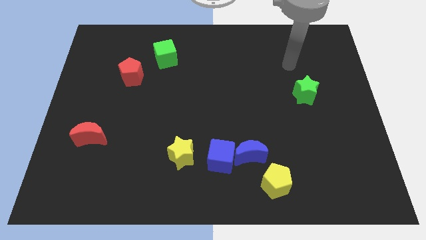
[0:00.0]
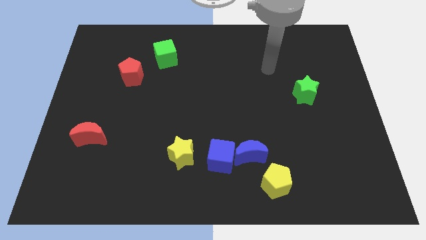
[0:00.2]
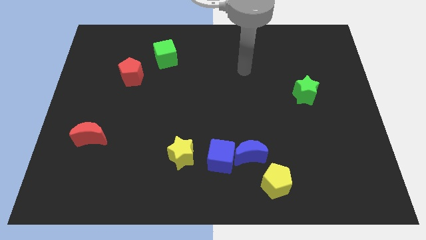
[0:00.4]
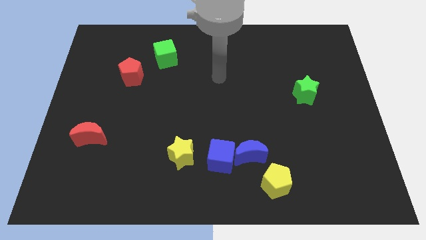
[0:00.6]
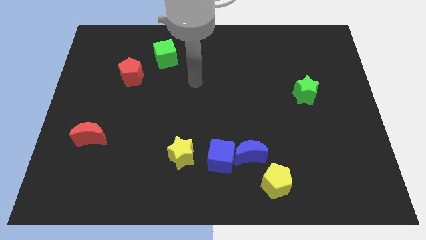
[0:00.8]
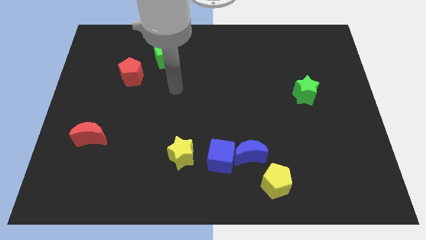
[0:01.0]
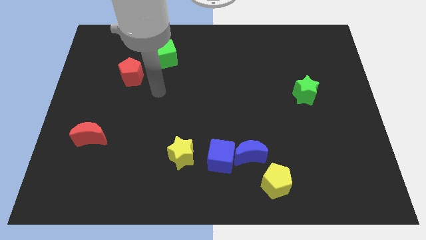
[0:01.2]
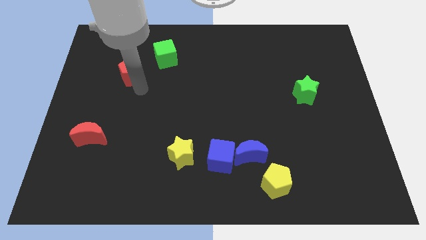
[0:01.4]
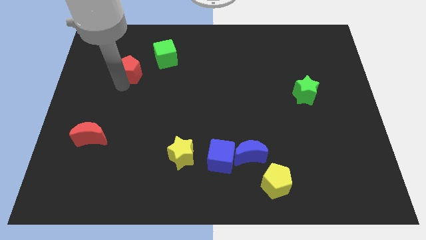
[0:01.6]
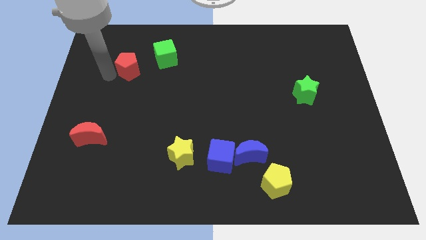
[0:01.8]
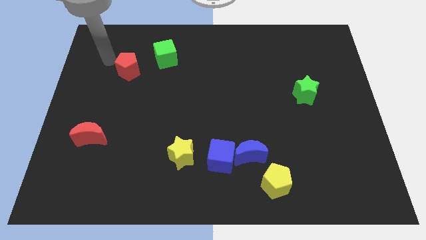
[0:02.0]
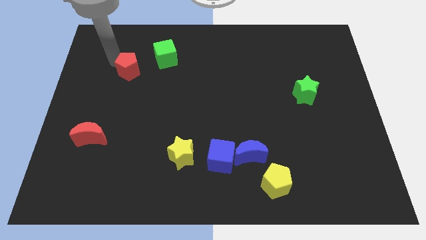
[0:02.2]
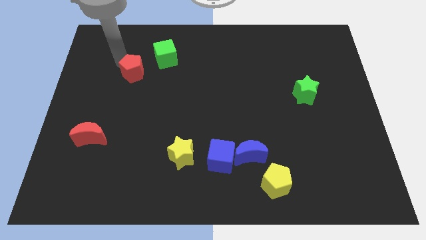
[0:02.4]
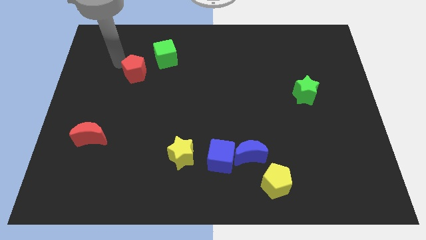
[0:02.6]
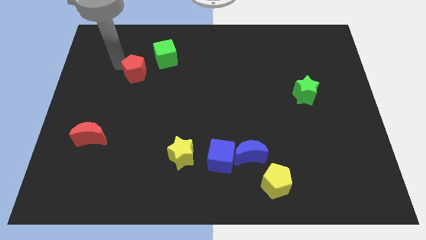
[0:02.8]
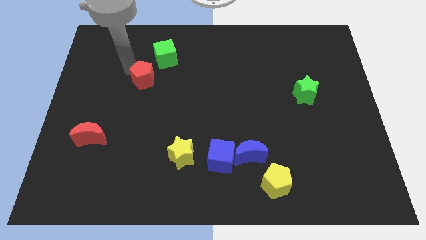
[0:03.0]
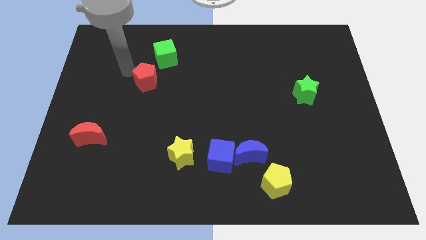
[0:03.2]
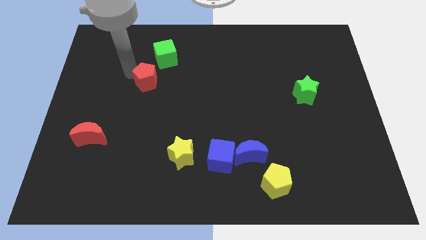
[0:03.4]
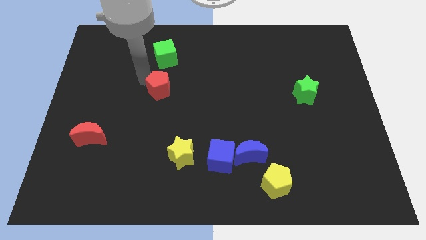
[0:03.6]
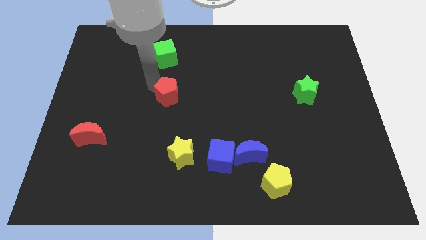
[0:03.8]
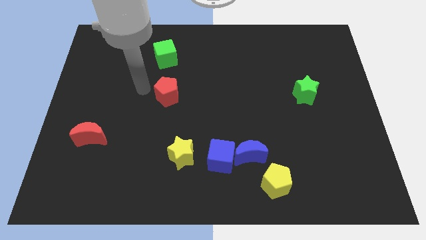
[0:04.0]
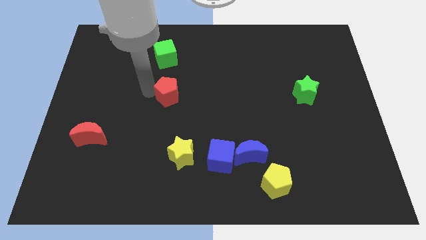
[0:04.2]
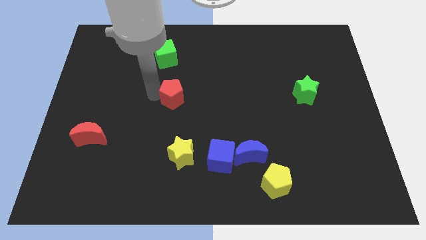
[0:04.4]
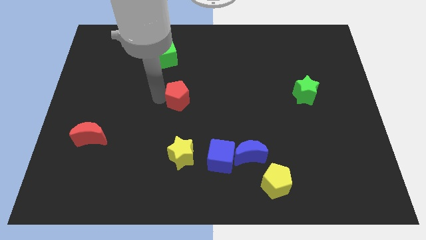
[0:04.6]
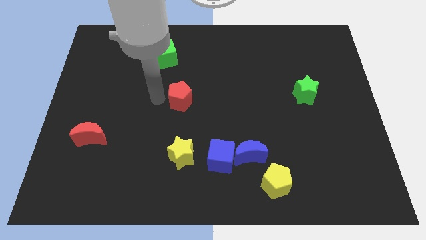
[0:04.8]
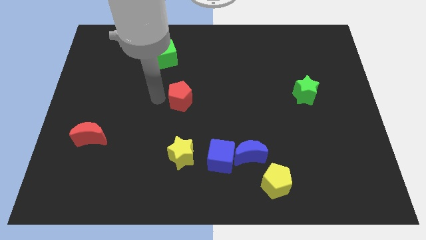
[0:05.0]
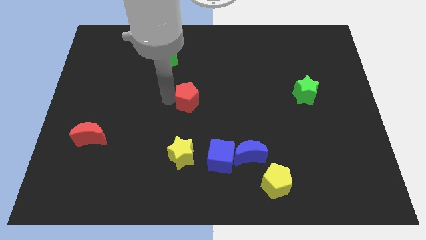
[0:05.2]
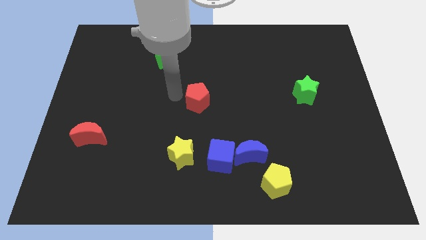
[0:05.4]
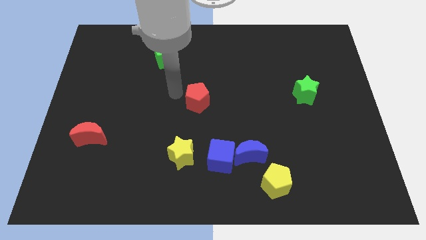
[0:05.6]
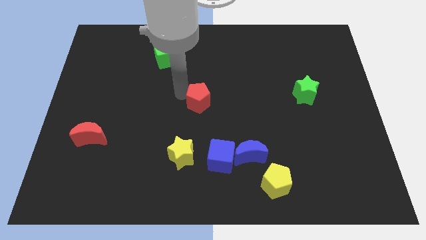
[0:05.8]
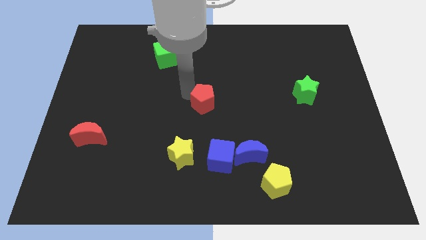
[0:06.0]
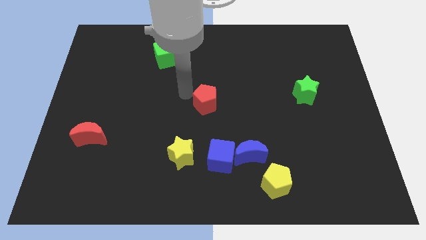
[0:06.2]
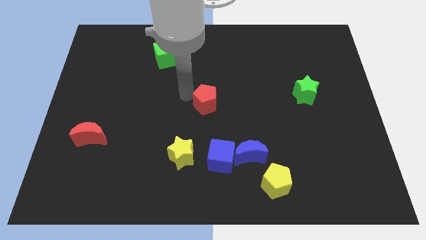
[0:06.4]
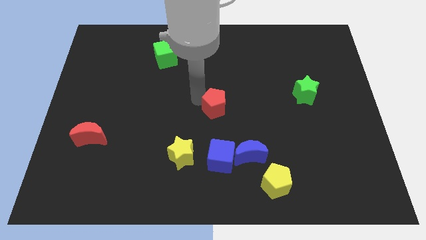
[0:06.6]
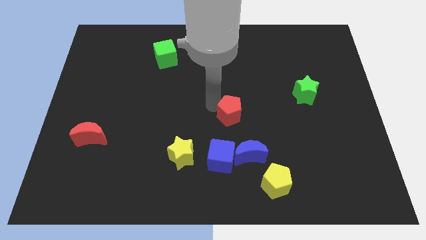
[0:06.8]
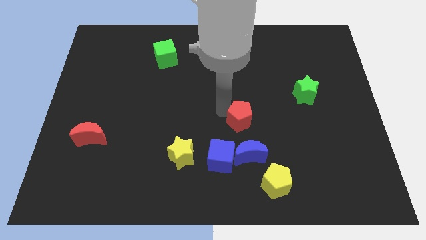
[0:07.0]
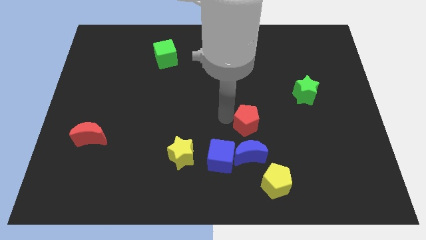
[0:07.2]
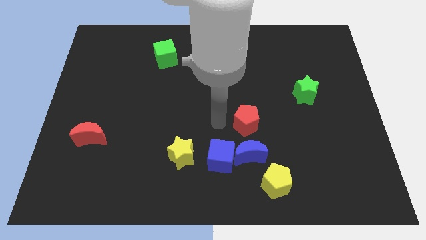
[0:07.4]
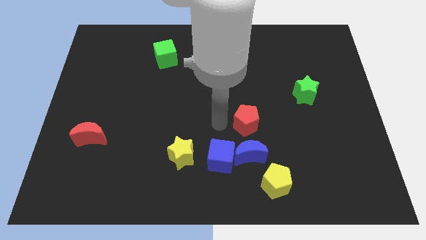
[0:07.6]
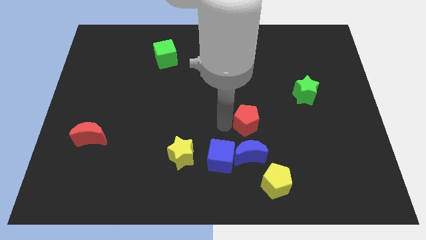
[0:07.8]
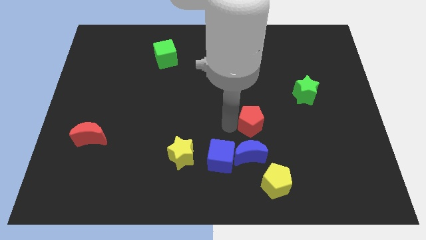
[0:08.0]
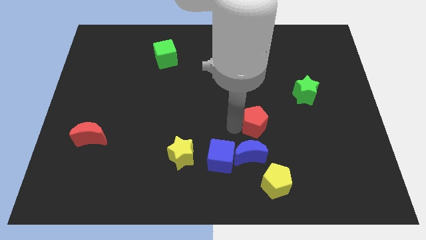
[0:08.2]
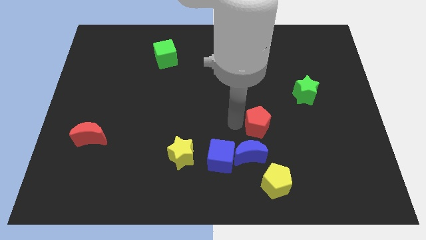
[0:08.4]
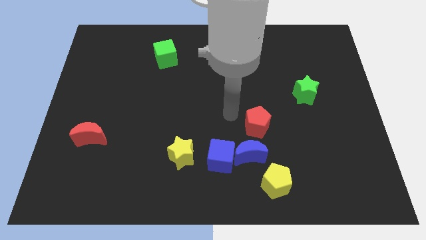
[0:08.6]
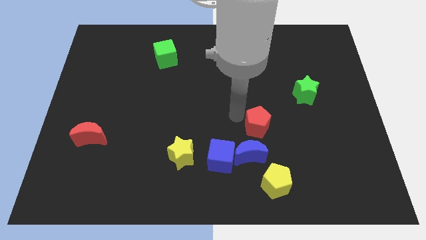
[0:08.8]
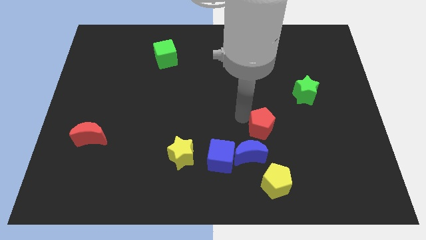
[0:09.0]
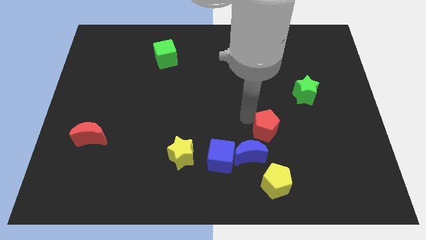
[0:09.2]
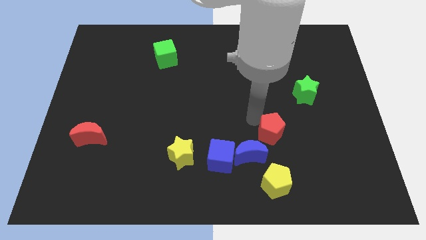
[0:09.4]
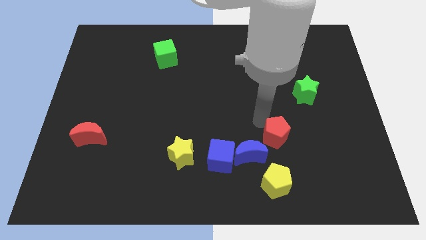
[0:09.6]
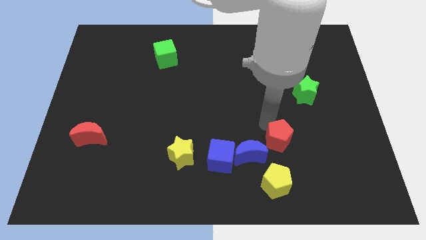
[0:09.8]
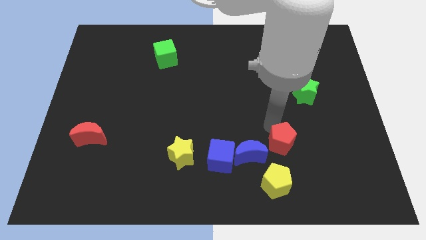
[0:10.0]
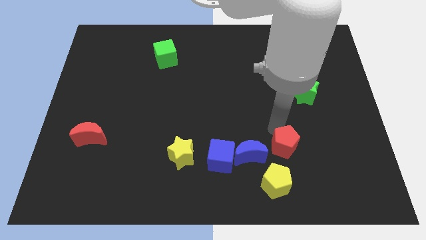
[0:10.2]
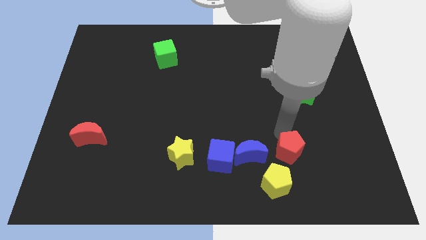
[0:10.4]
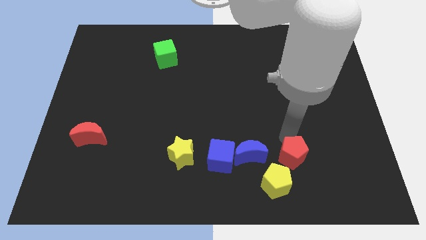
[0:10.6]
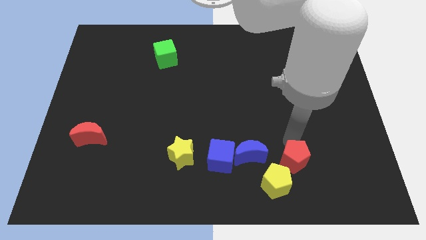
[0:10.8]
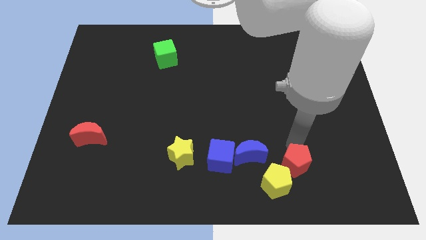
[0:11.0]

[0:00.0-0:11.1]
put the red pentagon right of the yellow pentagon
